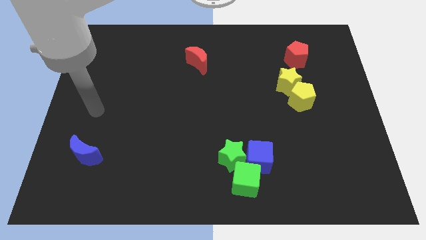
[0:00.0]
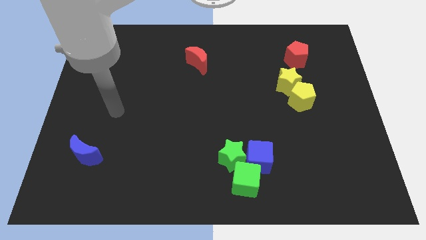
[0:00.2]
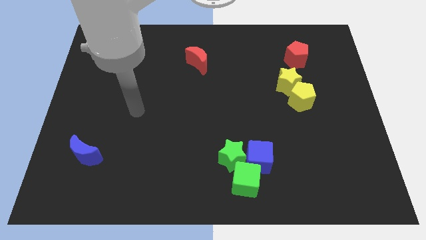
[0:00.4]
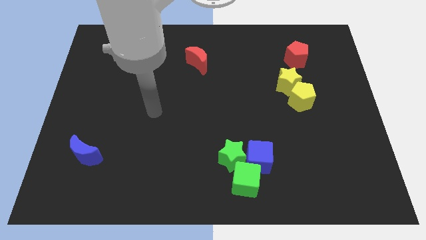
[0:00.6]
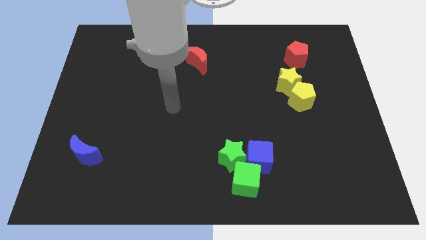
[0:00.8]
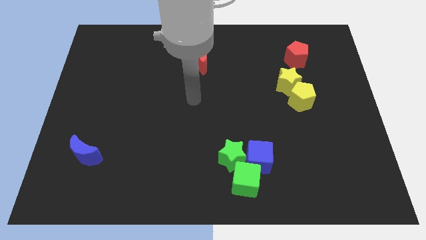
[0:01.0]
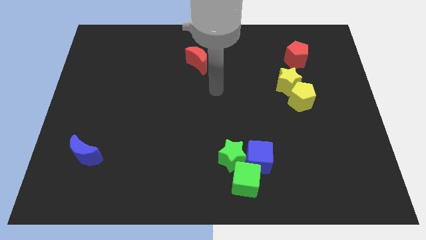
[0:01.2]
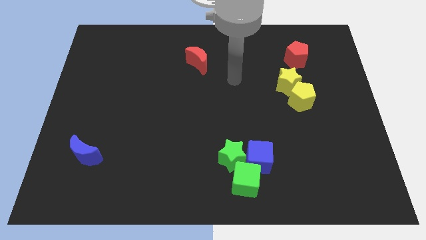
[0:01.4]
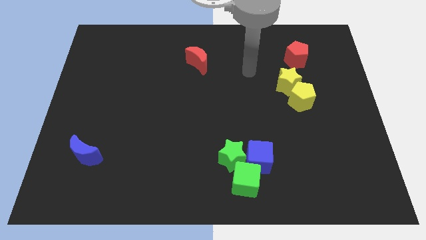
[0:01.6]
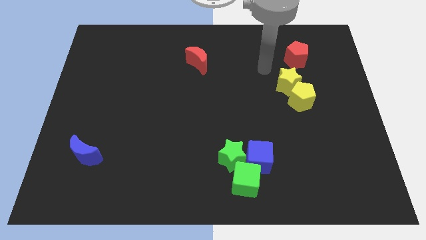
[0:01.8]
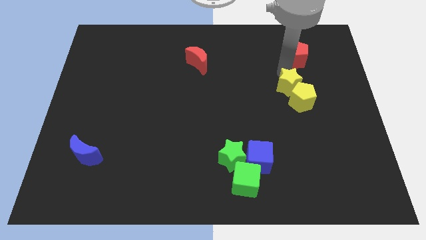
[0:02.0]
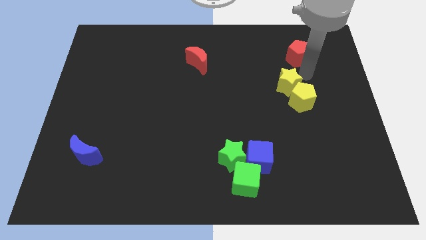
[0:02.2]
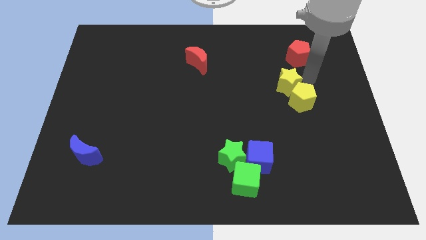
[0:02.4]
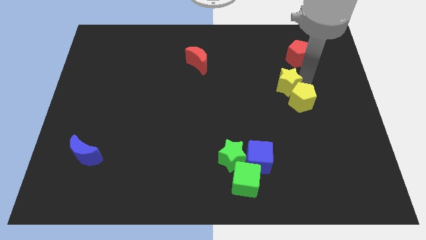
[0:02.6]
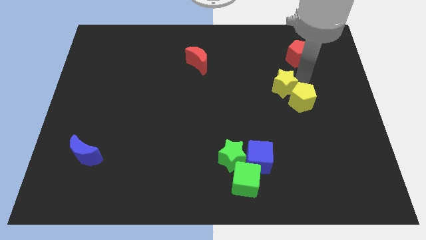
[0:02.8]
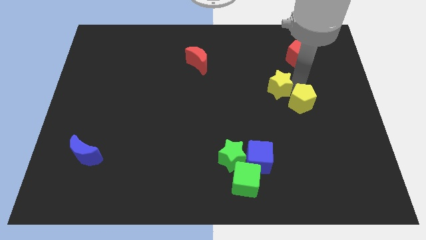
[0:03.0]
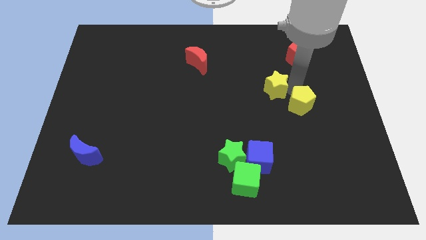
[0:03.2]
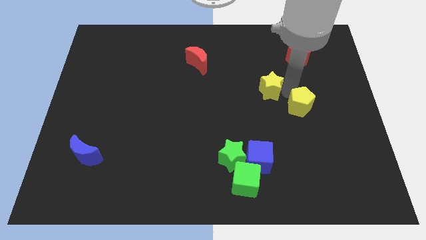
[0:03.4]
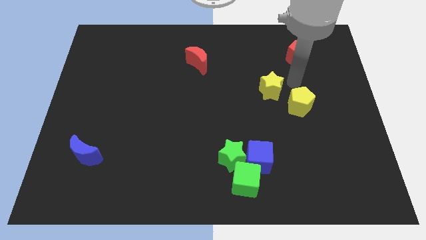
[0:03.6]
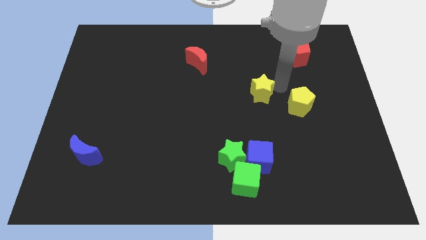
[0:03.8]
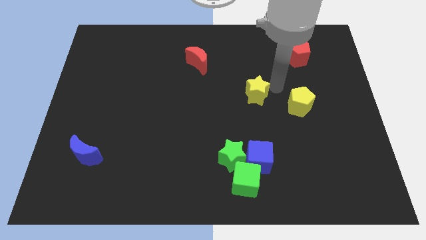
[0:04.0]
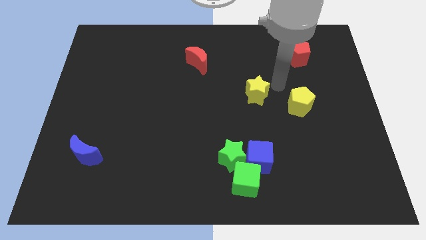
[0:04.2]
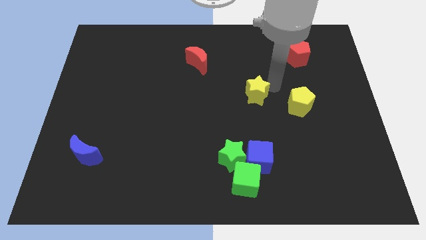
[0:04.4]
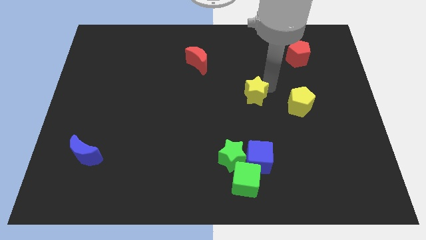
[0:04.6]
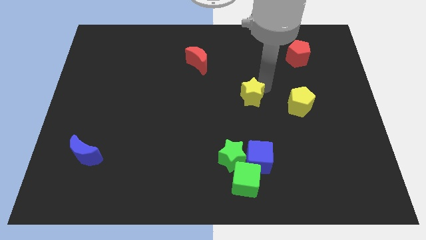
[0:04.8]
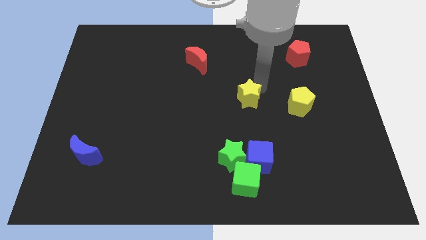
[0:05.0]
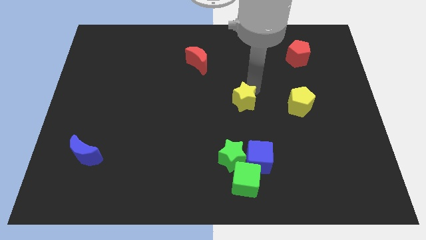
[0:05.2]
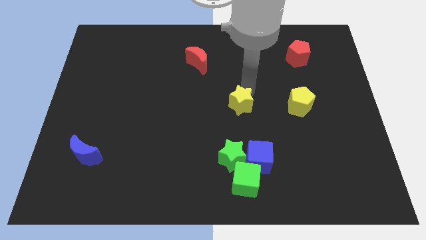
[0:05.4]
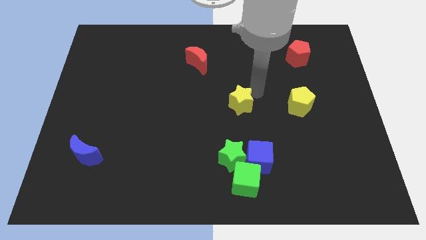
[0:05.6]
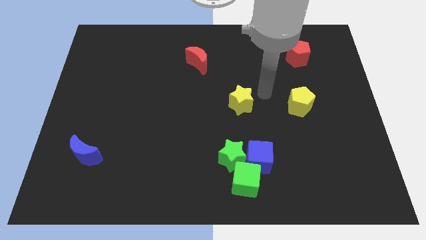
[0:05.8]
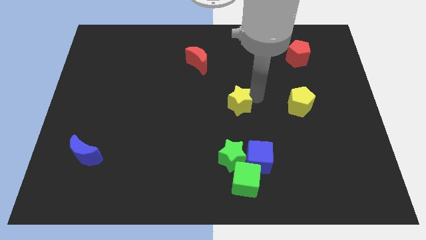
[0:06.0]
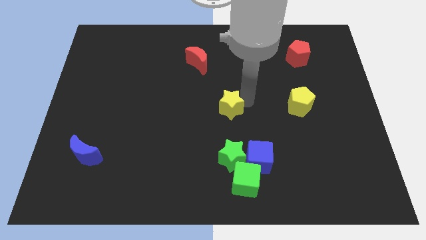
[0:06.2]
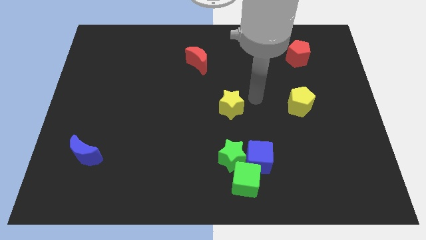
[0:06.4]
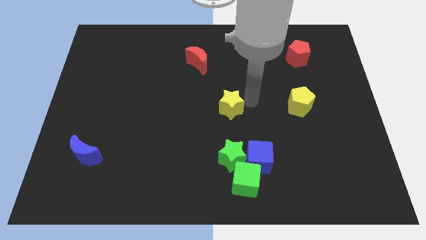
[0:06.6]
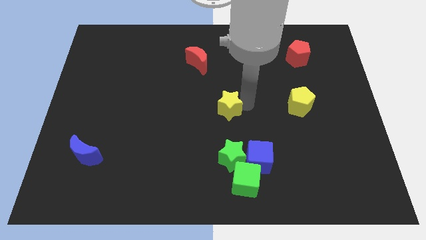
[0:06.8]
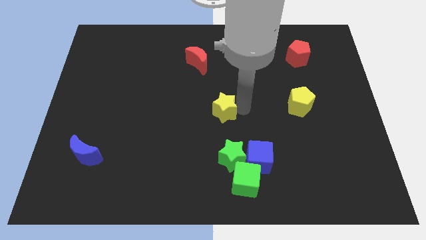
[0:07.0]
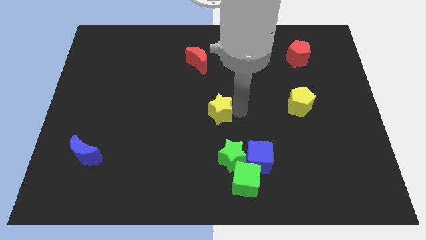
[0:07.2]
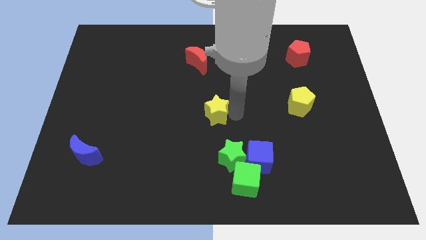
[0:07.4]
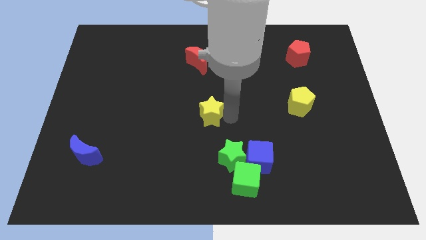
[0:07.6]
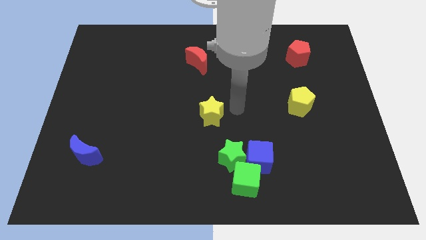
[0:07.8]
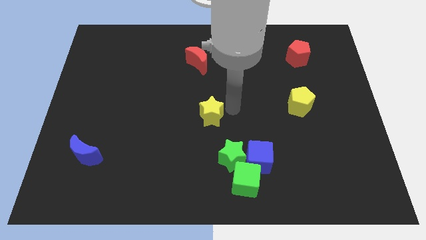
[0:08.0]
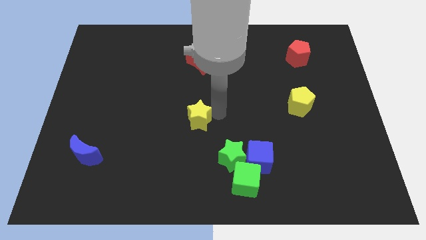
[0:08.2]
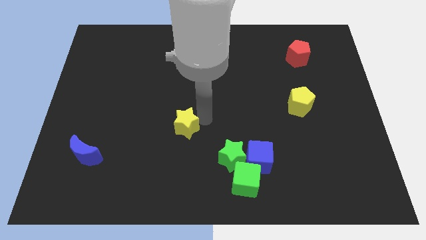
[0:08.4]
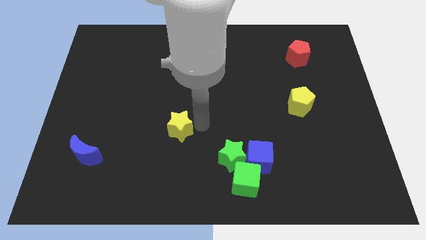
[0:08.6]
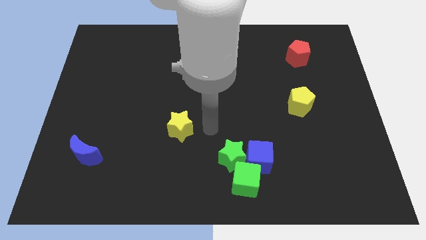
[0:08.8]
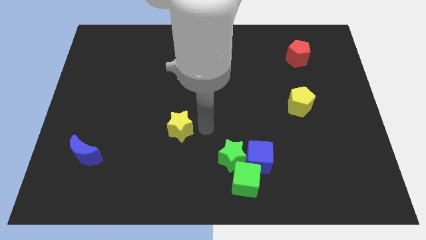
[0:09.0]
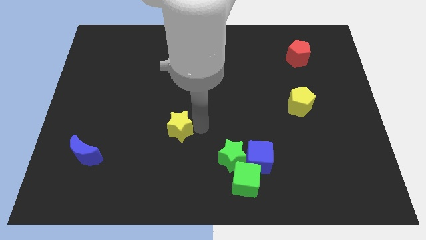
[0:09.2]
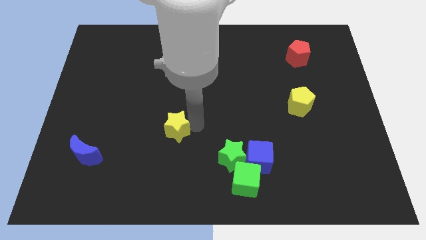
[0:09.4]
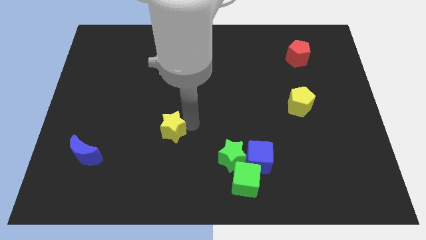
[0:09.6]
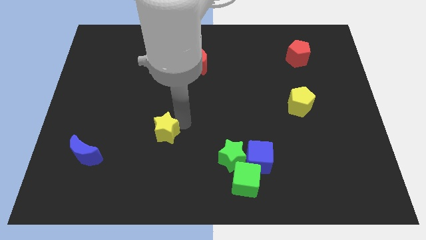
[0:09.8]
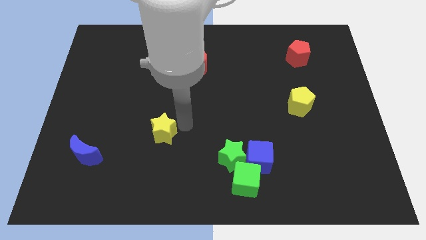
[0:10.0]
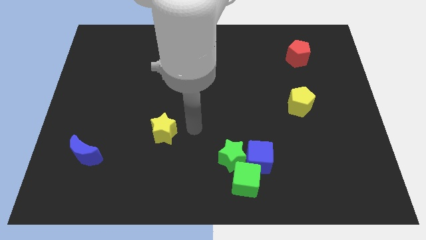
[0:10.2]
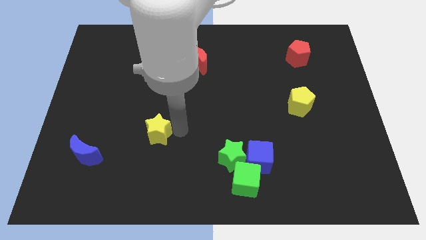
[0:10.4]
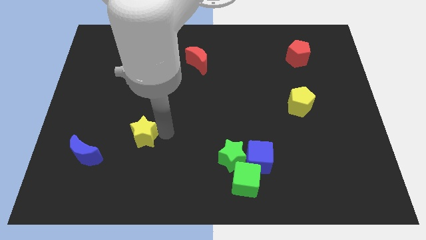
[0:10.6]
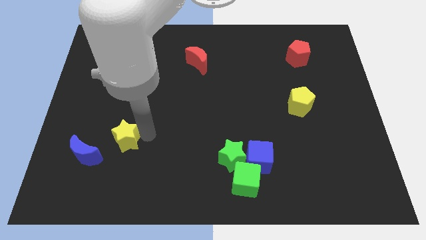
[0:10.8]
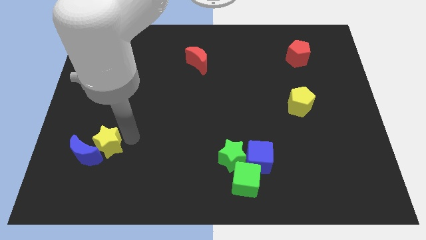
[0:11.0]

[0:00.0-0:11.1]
slide the yellow star towards the blue moon

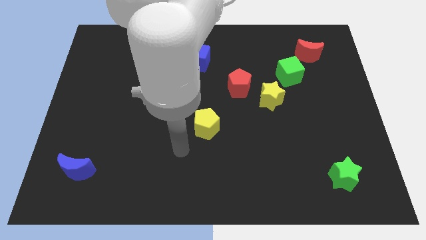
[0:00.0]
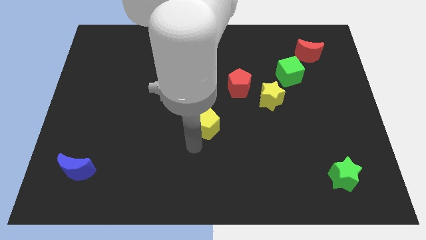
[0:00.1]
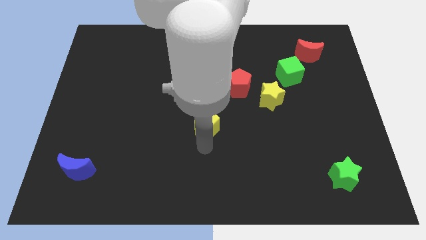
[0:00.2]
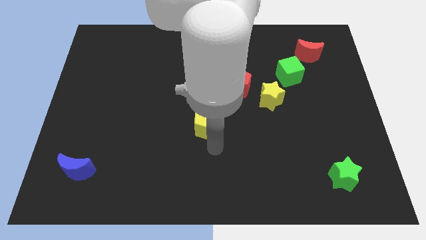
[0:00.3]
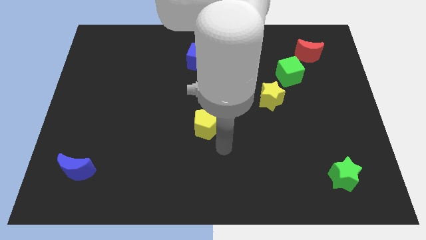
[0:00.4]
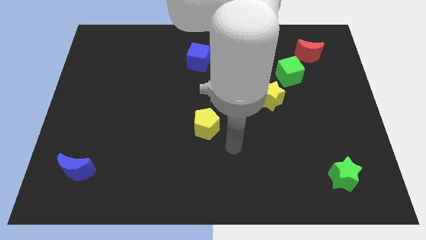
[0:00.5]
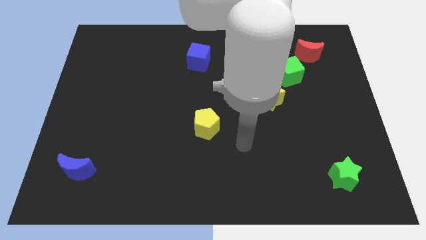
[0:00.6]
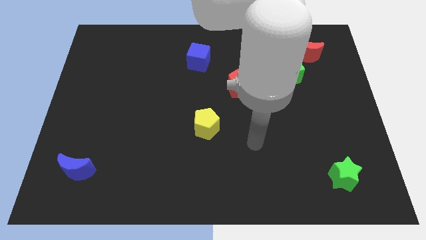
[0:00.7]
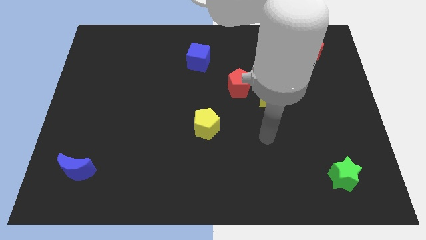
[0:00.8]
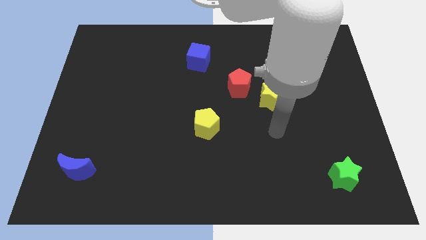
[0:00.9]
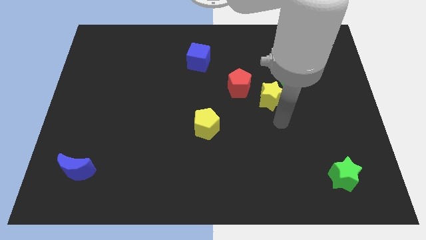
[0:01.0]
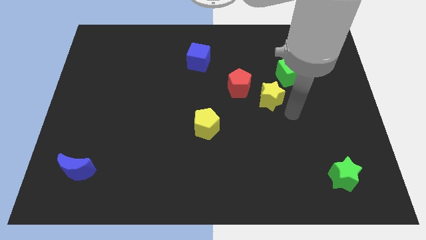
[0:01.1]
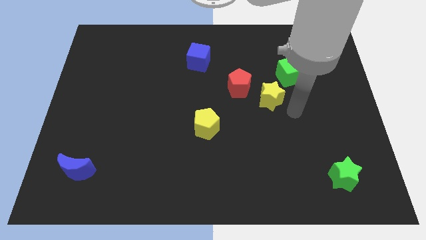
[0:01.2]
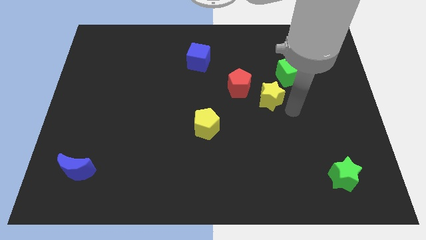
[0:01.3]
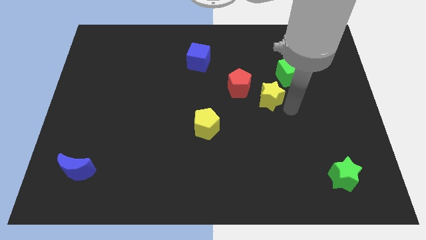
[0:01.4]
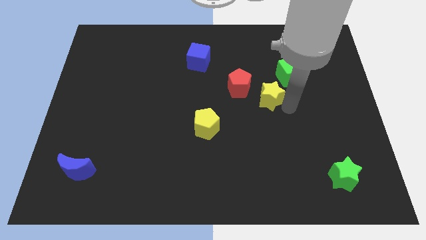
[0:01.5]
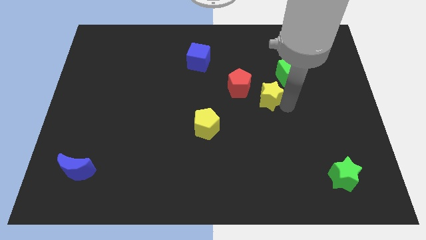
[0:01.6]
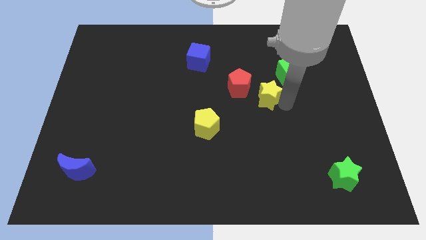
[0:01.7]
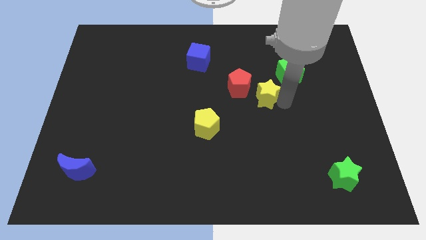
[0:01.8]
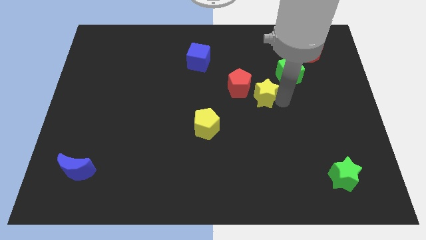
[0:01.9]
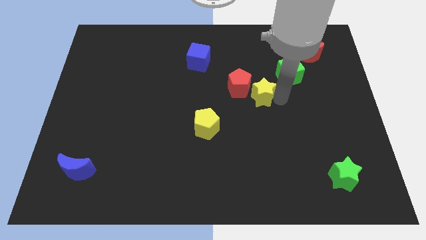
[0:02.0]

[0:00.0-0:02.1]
push the yellow star close to the red pentagon

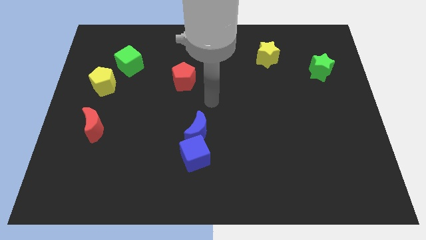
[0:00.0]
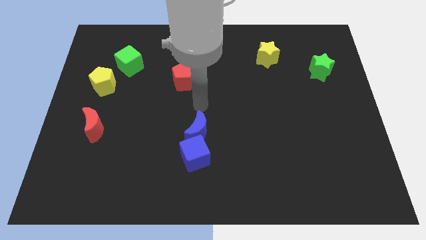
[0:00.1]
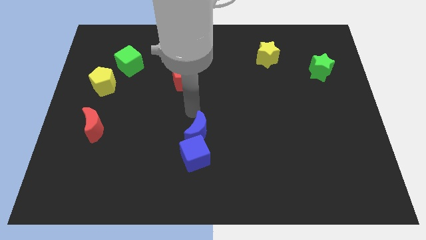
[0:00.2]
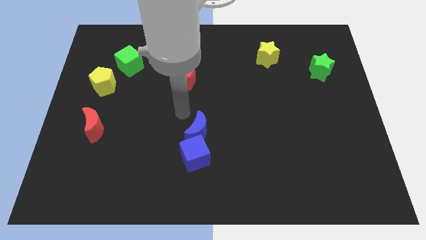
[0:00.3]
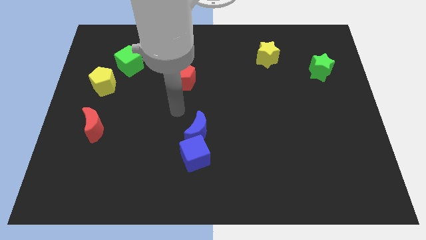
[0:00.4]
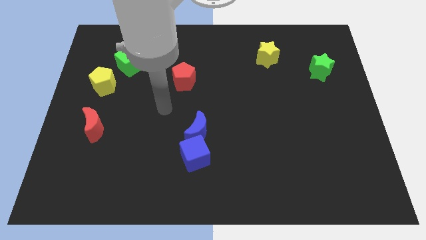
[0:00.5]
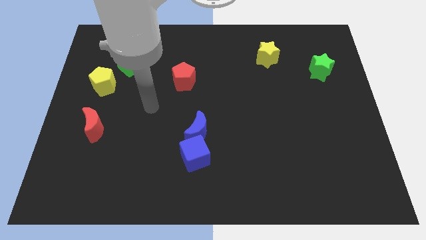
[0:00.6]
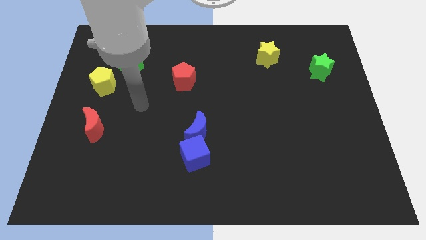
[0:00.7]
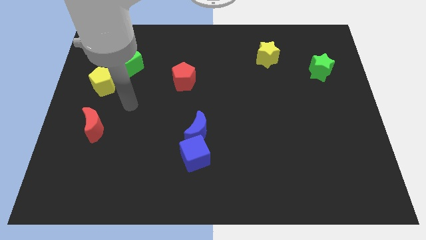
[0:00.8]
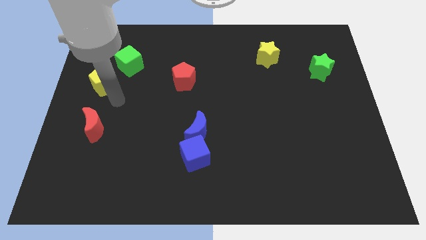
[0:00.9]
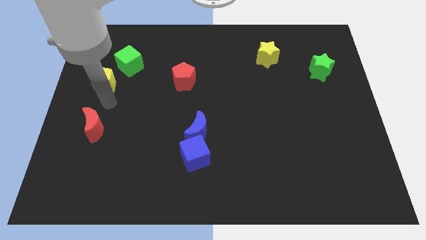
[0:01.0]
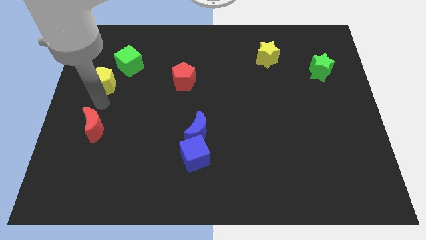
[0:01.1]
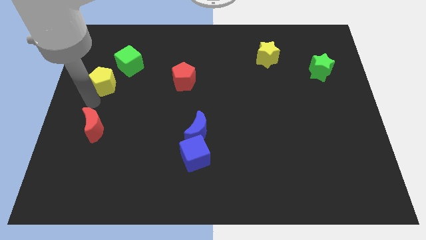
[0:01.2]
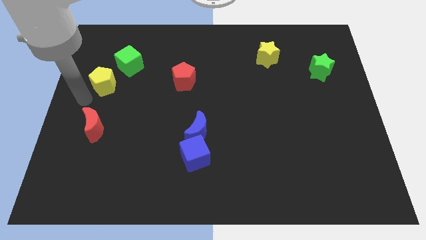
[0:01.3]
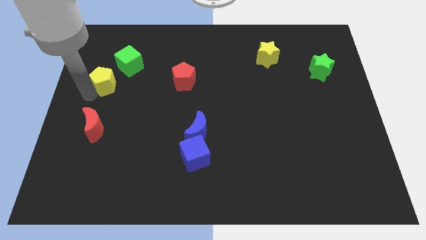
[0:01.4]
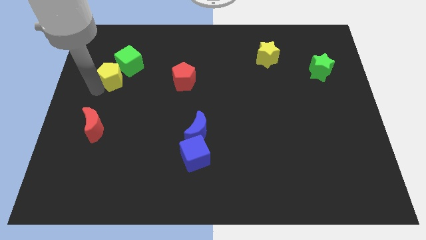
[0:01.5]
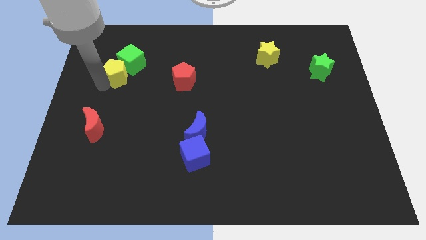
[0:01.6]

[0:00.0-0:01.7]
put the yellow pentagon towards the green cube
